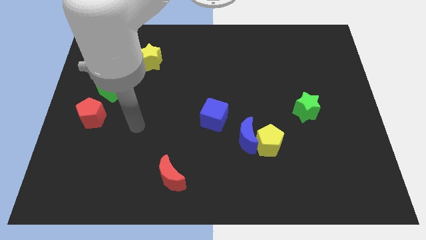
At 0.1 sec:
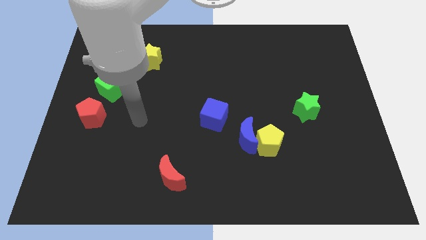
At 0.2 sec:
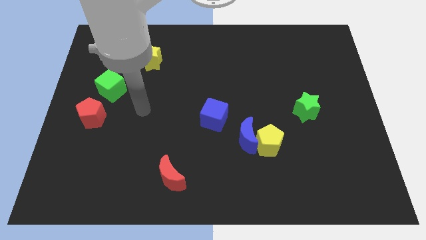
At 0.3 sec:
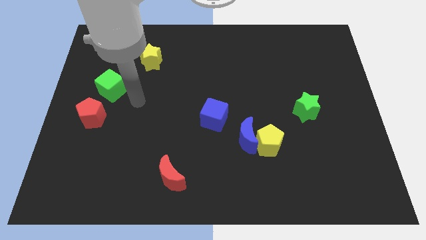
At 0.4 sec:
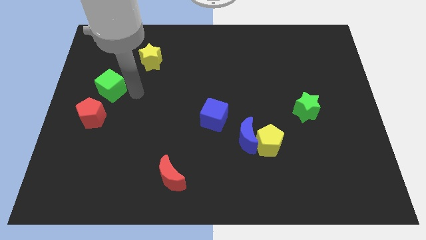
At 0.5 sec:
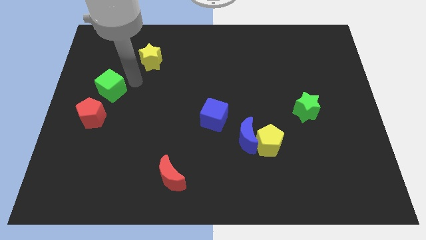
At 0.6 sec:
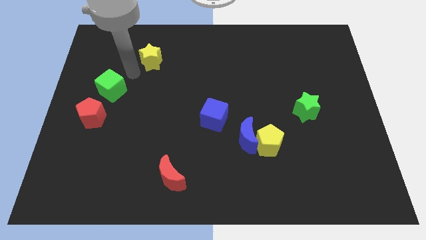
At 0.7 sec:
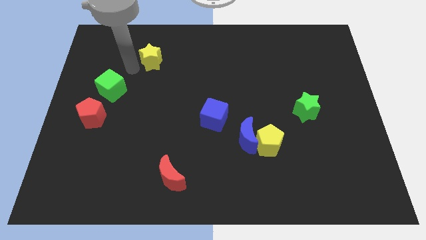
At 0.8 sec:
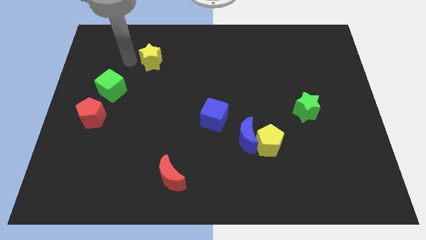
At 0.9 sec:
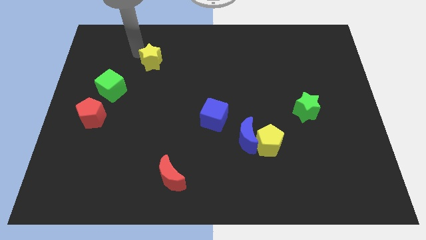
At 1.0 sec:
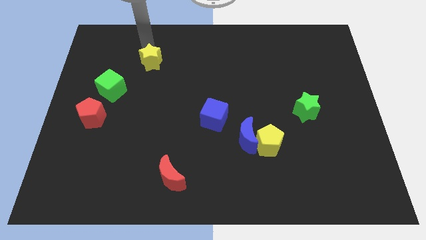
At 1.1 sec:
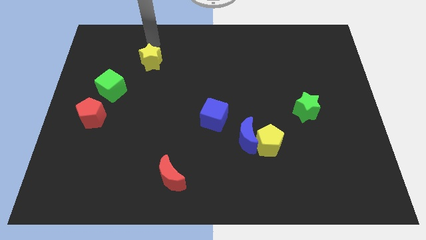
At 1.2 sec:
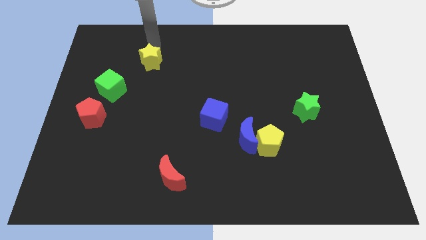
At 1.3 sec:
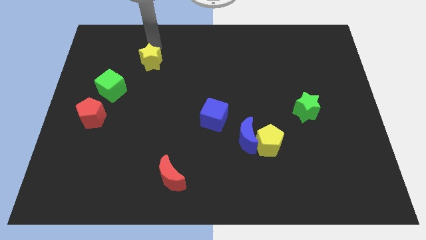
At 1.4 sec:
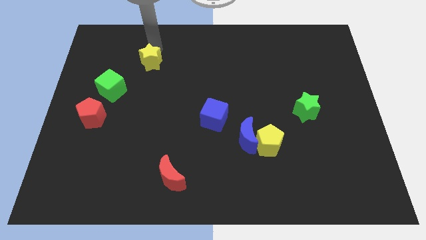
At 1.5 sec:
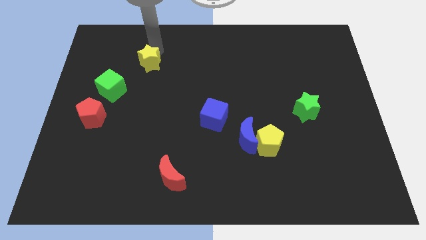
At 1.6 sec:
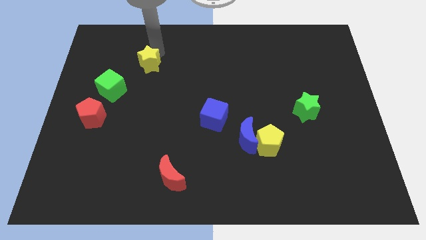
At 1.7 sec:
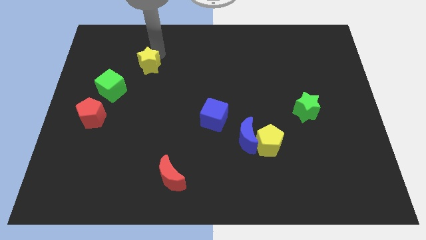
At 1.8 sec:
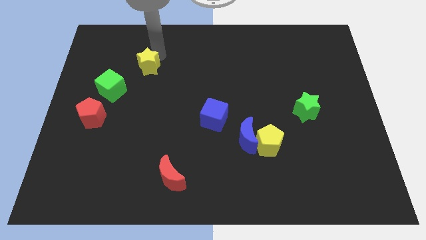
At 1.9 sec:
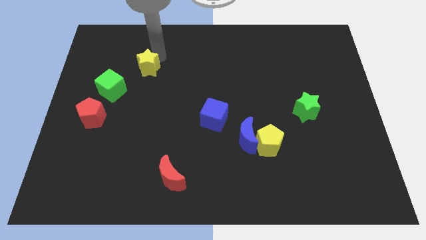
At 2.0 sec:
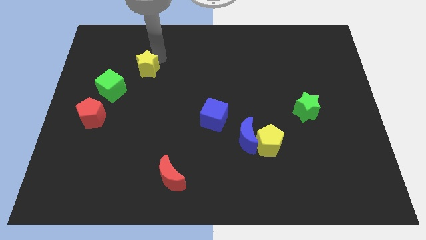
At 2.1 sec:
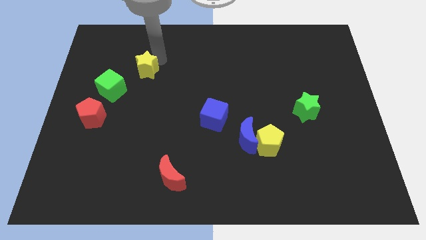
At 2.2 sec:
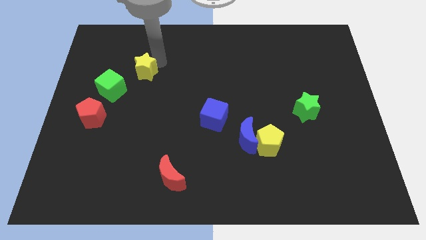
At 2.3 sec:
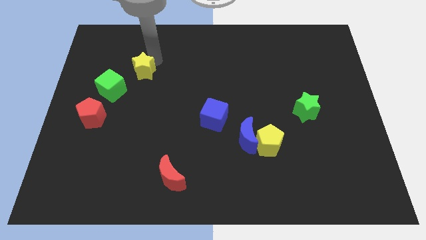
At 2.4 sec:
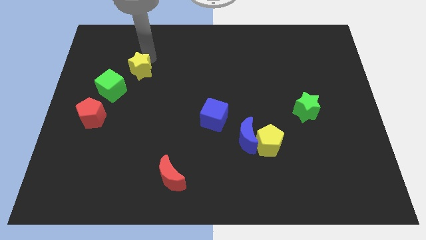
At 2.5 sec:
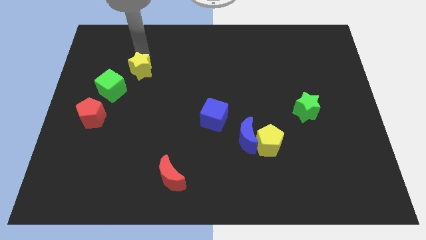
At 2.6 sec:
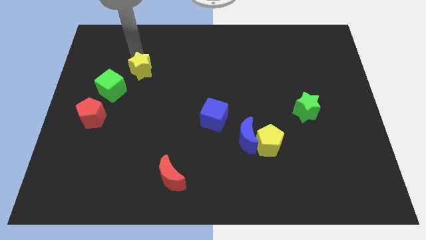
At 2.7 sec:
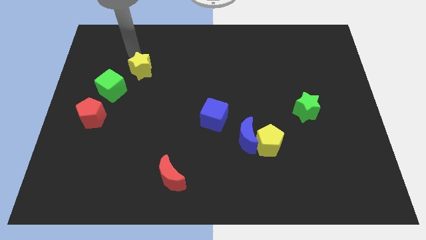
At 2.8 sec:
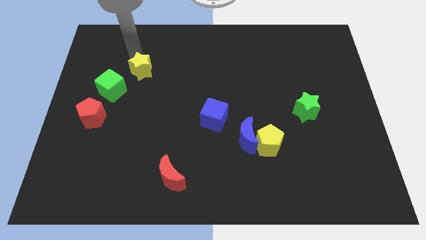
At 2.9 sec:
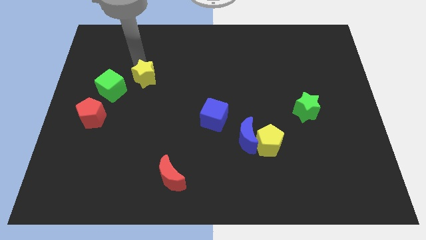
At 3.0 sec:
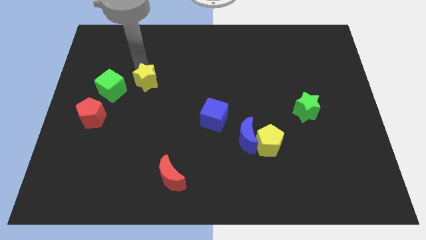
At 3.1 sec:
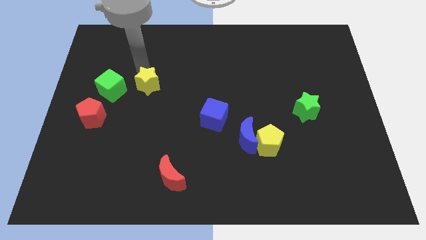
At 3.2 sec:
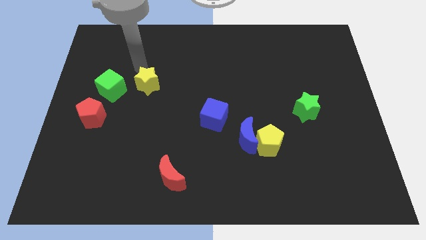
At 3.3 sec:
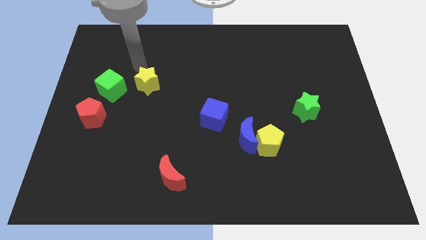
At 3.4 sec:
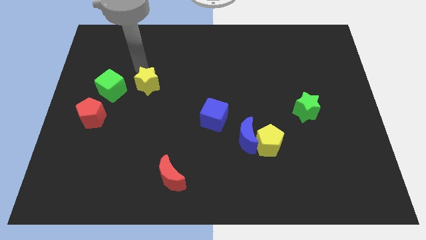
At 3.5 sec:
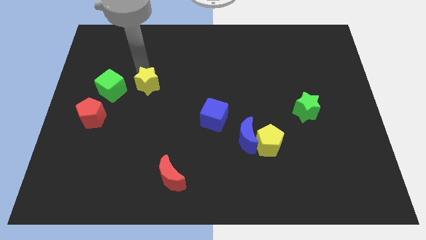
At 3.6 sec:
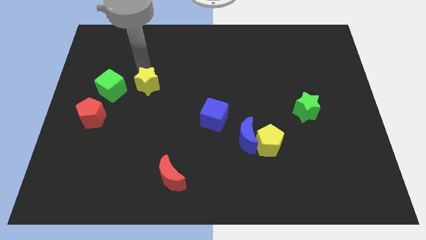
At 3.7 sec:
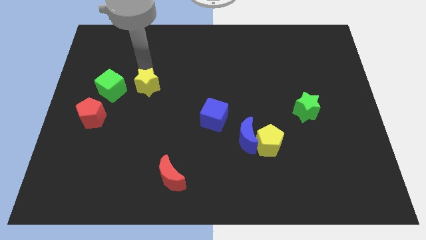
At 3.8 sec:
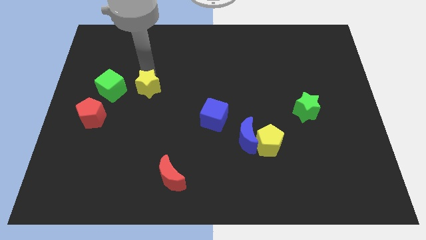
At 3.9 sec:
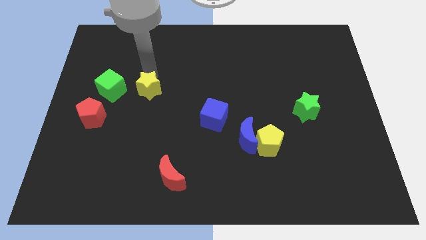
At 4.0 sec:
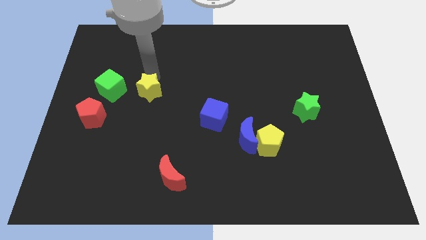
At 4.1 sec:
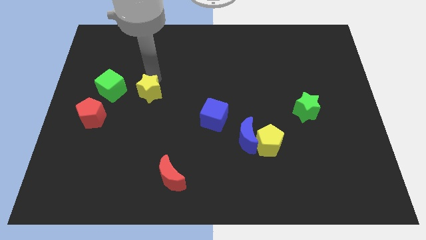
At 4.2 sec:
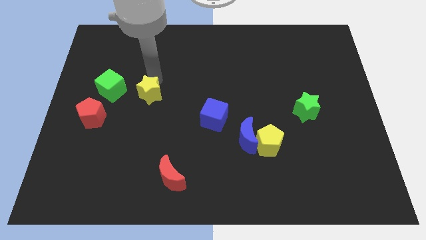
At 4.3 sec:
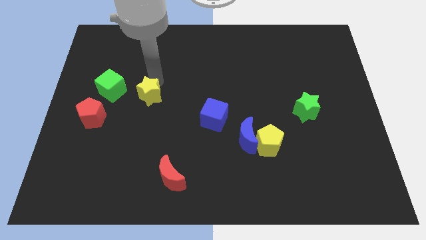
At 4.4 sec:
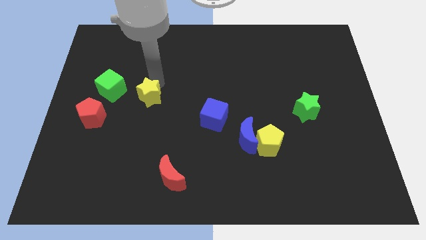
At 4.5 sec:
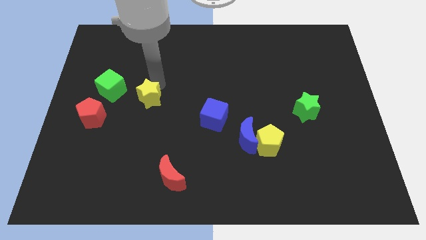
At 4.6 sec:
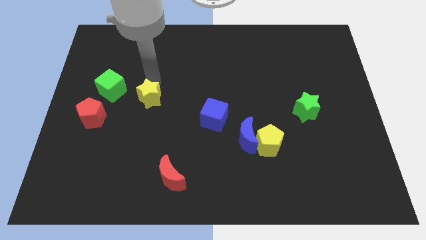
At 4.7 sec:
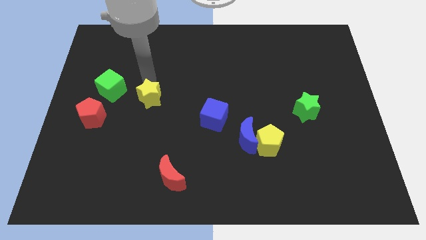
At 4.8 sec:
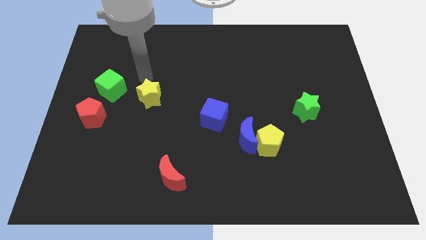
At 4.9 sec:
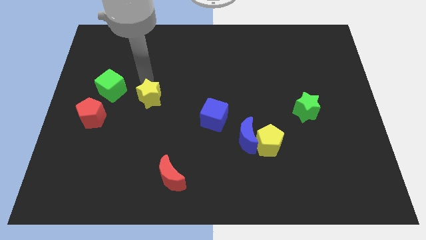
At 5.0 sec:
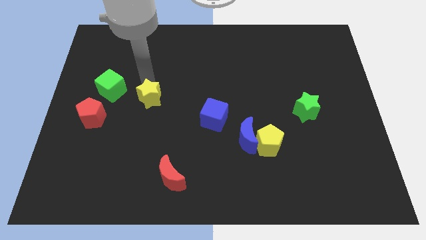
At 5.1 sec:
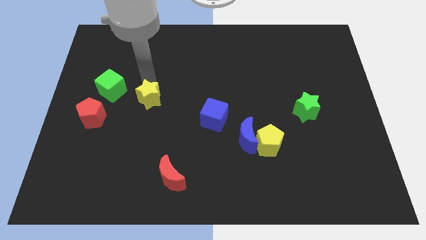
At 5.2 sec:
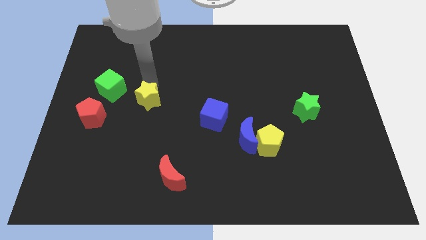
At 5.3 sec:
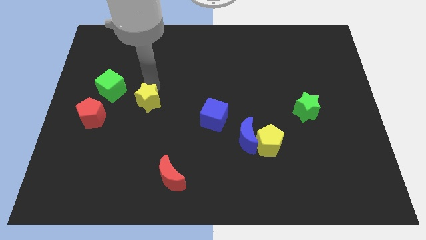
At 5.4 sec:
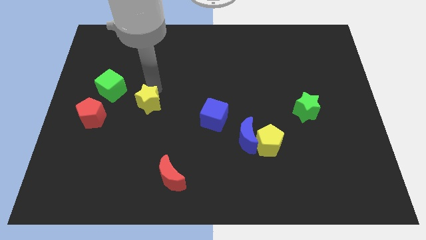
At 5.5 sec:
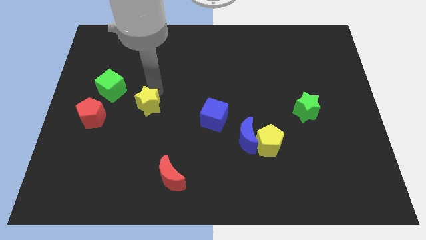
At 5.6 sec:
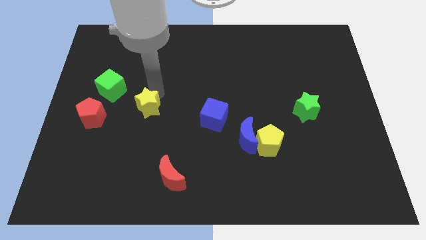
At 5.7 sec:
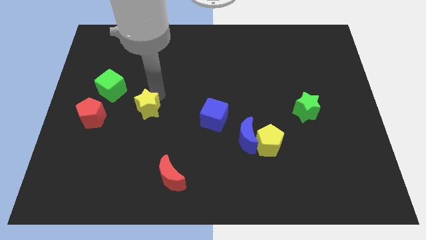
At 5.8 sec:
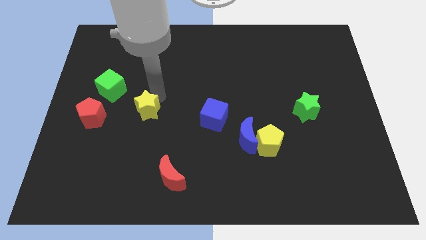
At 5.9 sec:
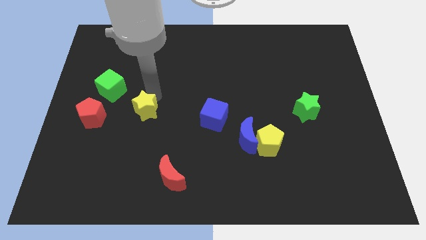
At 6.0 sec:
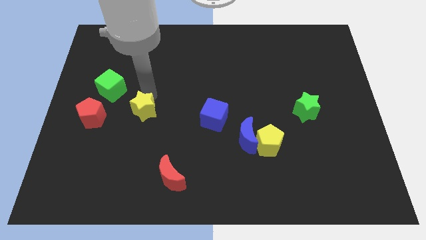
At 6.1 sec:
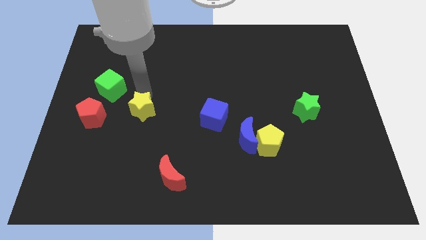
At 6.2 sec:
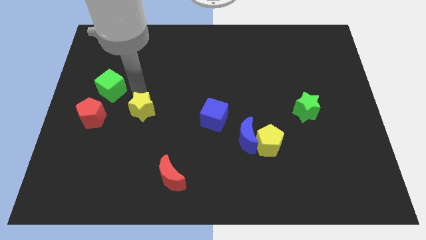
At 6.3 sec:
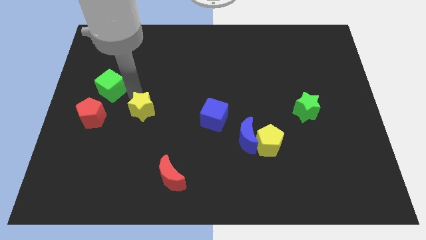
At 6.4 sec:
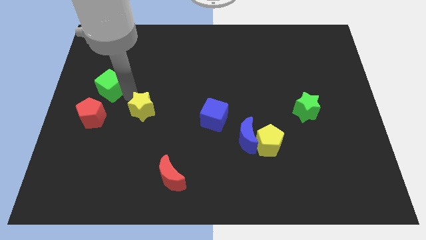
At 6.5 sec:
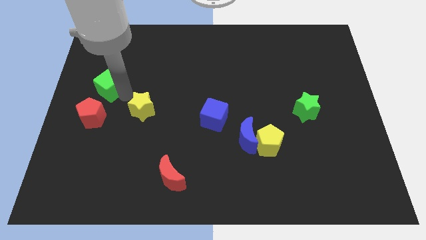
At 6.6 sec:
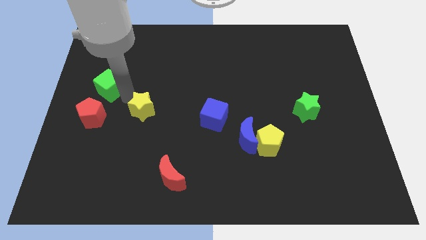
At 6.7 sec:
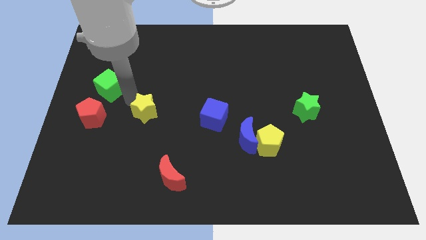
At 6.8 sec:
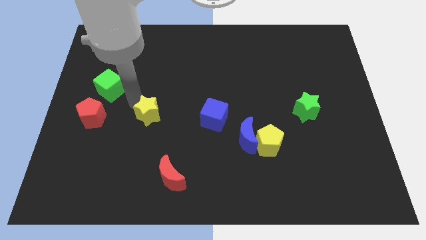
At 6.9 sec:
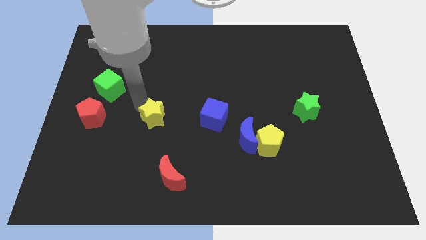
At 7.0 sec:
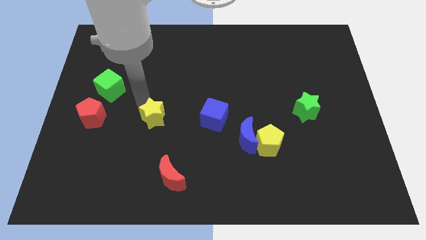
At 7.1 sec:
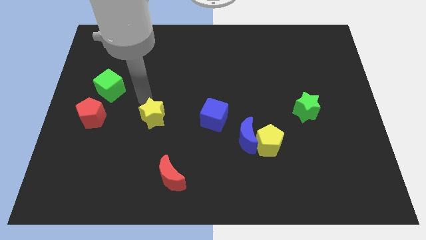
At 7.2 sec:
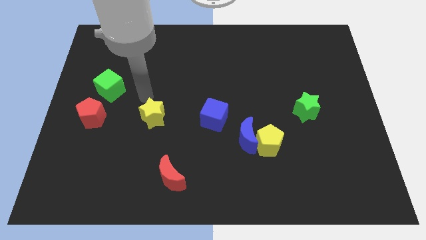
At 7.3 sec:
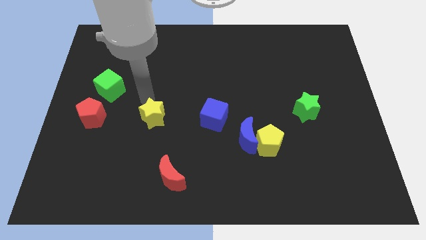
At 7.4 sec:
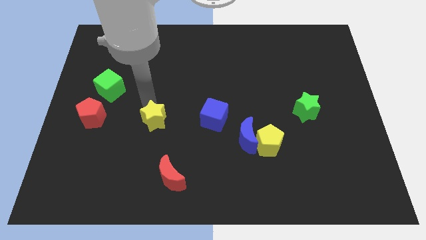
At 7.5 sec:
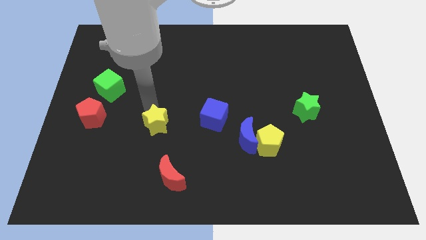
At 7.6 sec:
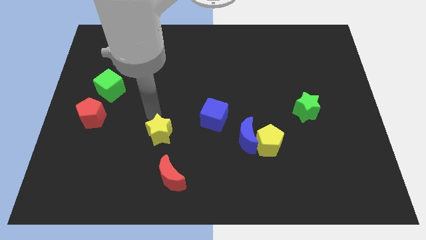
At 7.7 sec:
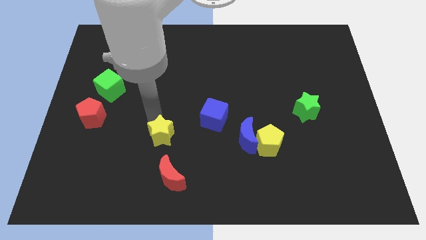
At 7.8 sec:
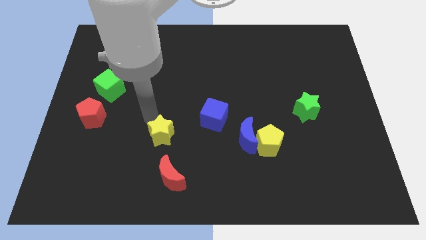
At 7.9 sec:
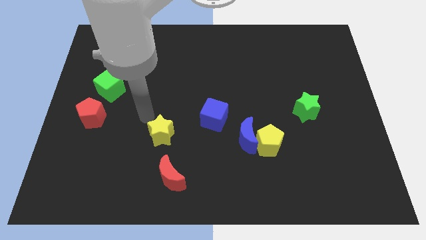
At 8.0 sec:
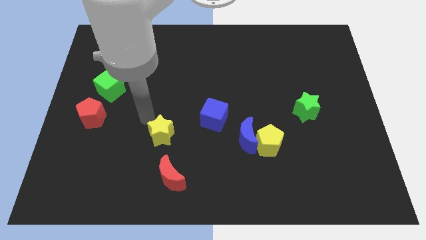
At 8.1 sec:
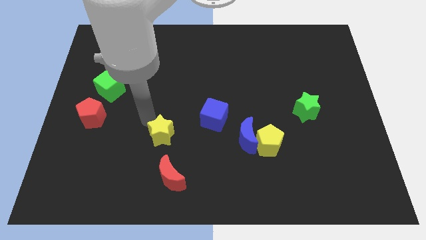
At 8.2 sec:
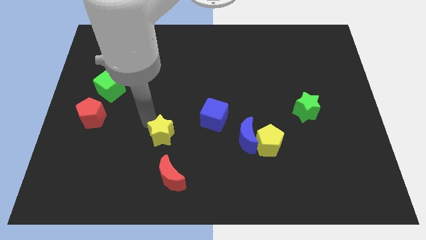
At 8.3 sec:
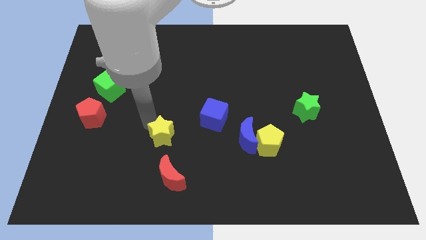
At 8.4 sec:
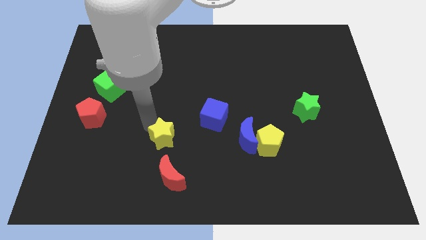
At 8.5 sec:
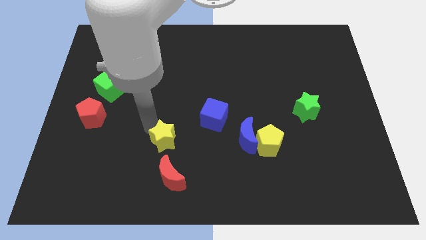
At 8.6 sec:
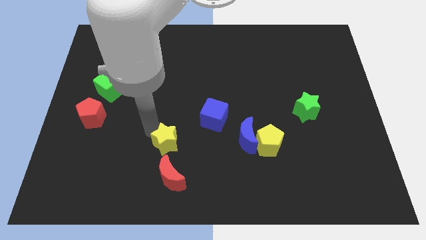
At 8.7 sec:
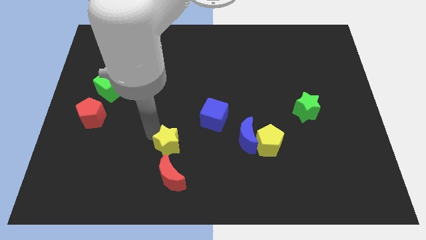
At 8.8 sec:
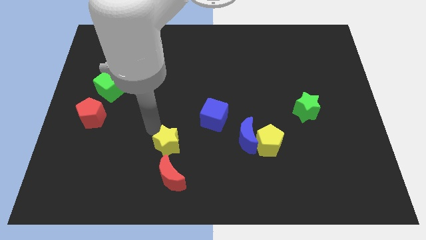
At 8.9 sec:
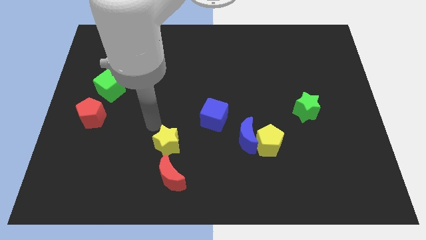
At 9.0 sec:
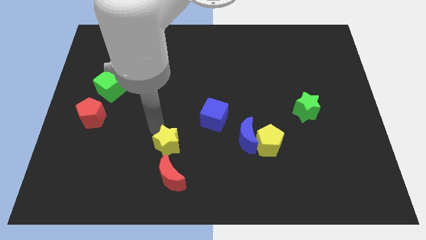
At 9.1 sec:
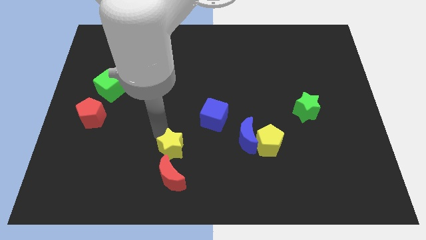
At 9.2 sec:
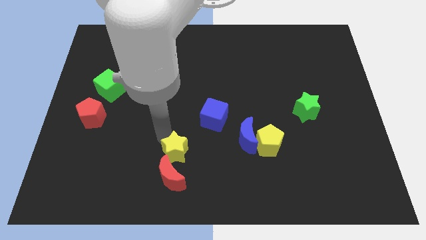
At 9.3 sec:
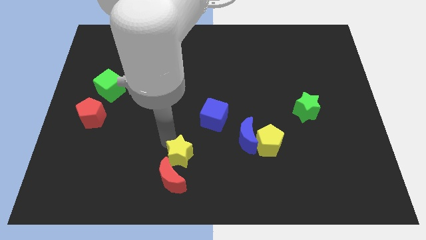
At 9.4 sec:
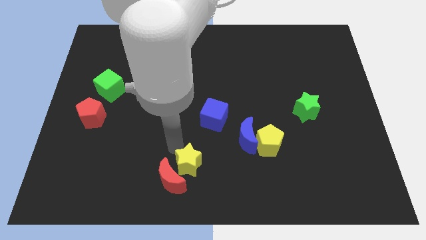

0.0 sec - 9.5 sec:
push the yellow star to the bottom
